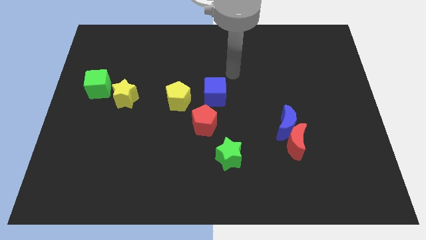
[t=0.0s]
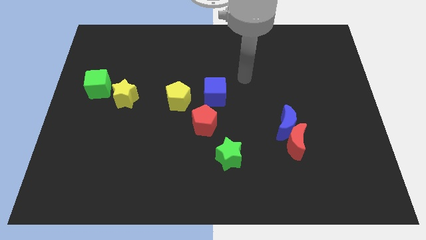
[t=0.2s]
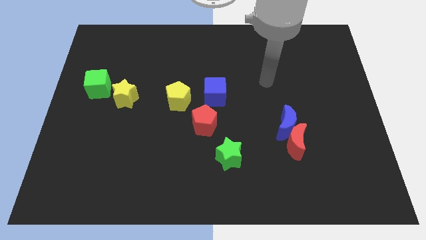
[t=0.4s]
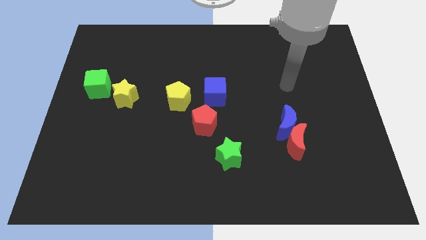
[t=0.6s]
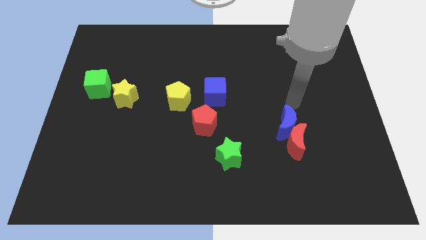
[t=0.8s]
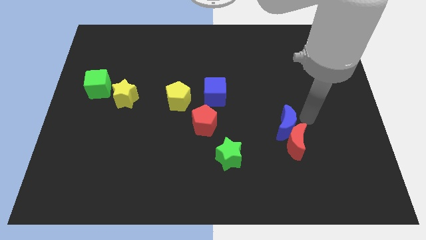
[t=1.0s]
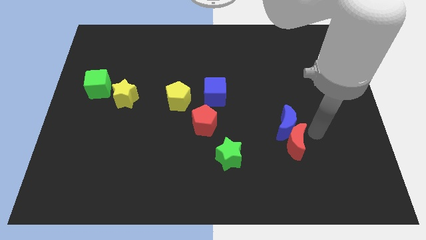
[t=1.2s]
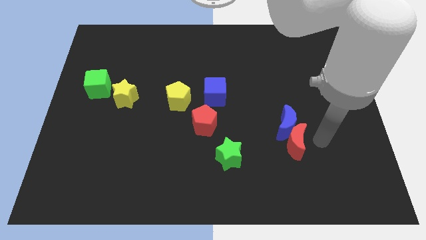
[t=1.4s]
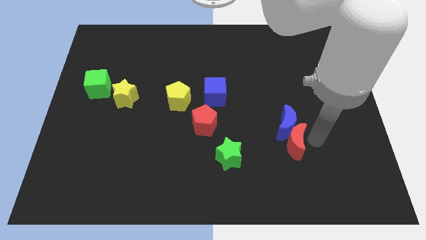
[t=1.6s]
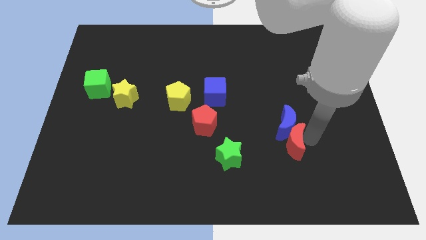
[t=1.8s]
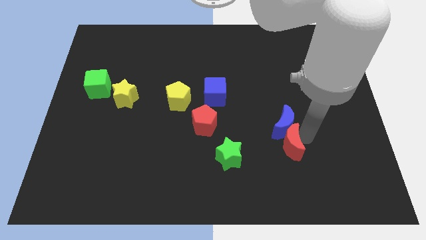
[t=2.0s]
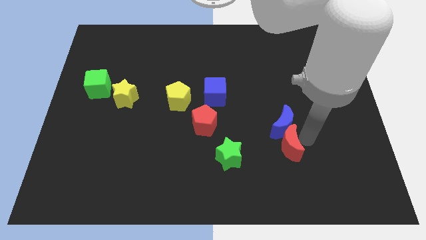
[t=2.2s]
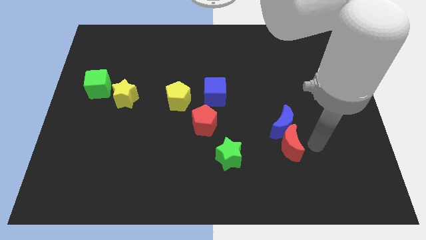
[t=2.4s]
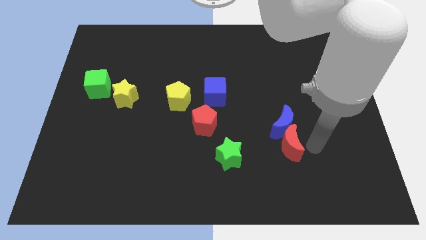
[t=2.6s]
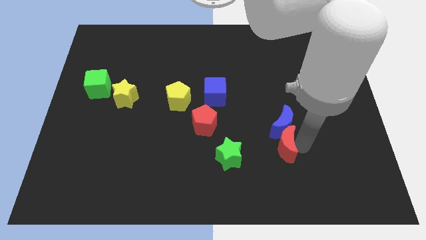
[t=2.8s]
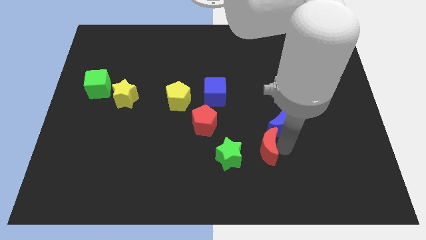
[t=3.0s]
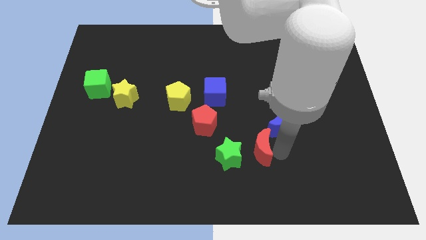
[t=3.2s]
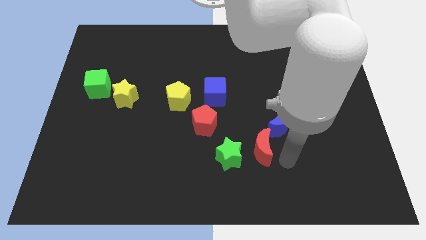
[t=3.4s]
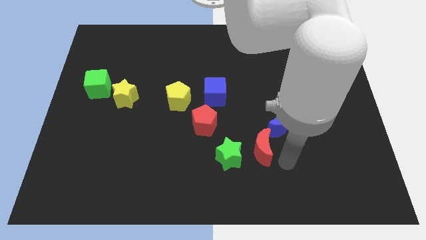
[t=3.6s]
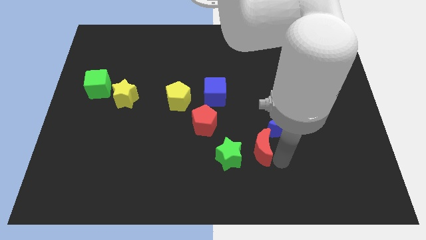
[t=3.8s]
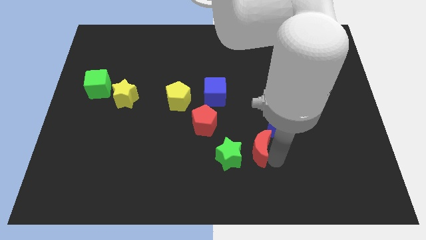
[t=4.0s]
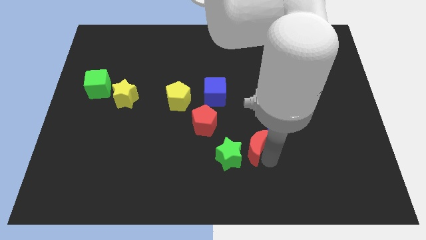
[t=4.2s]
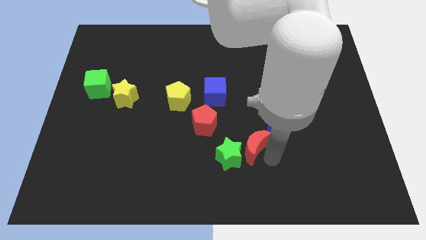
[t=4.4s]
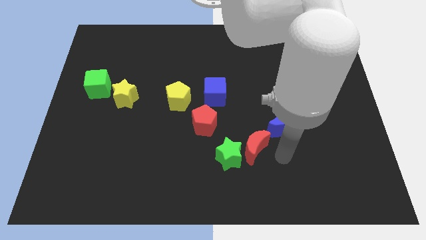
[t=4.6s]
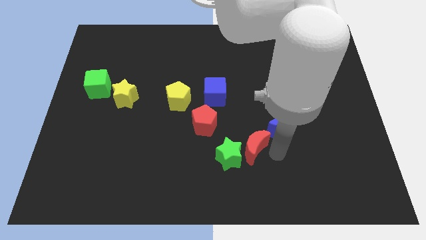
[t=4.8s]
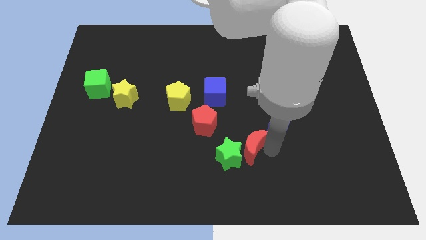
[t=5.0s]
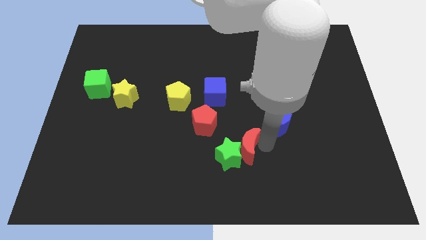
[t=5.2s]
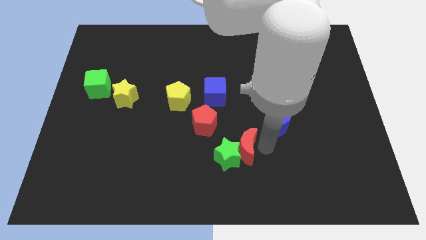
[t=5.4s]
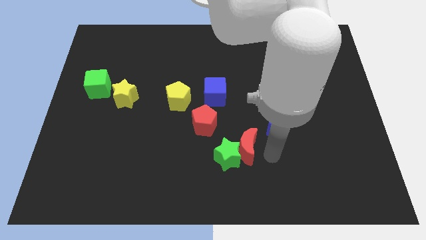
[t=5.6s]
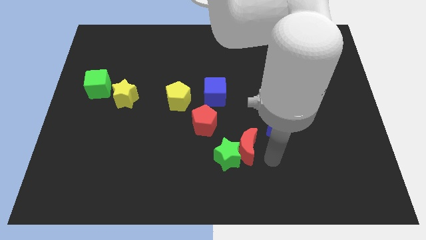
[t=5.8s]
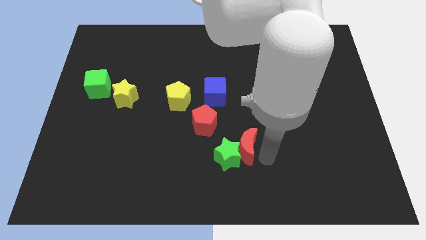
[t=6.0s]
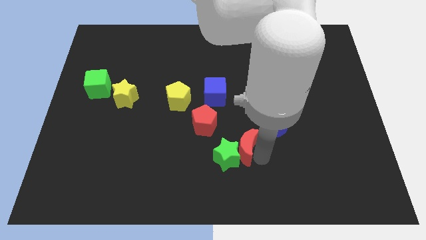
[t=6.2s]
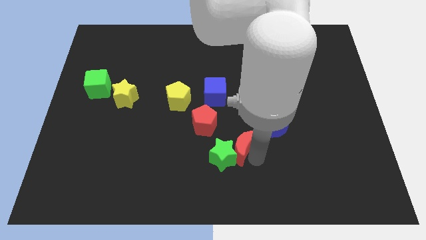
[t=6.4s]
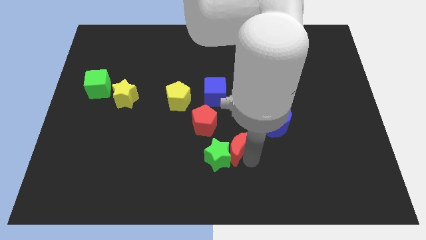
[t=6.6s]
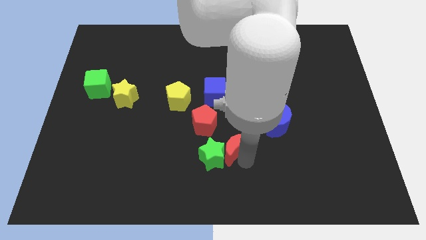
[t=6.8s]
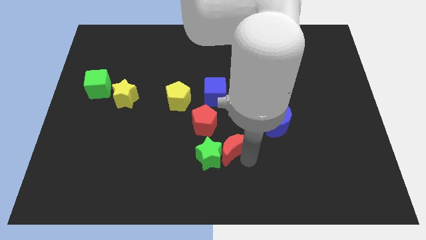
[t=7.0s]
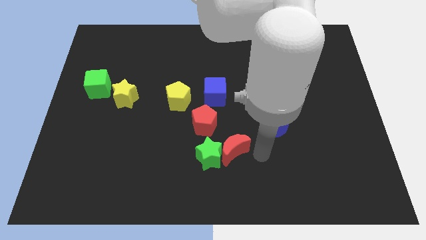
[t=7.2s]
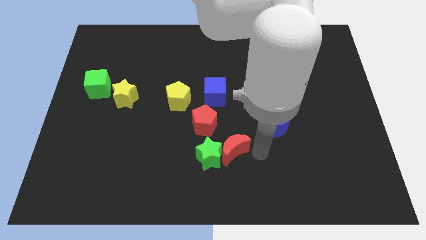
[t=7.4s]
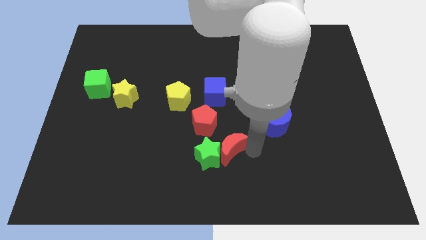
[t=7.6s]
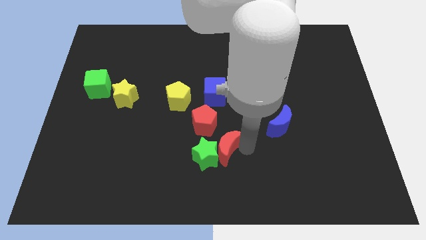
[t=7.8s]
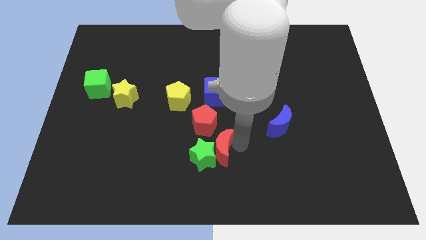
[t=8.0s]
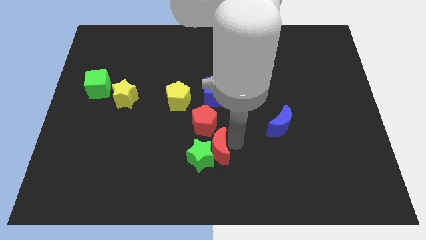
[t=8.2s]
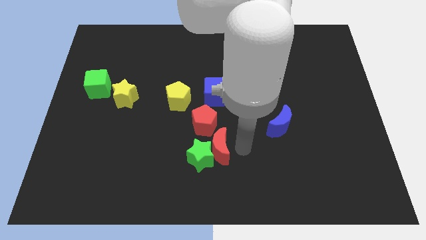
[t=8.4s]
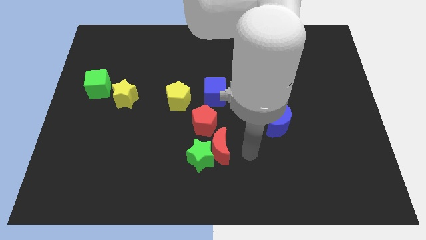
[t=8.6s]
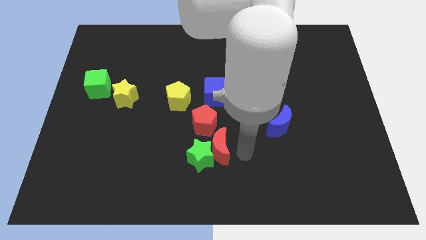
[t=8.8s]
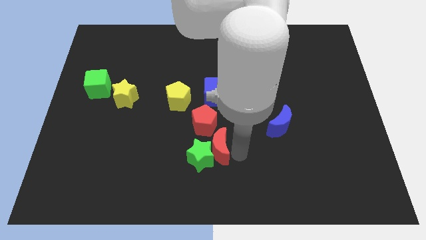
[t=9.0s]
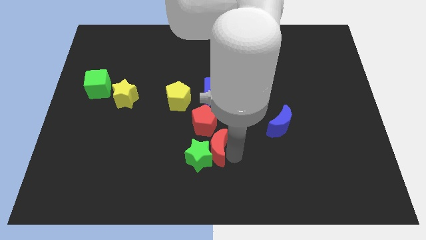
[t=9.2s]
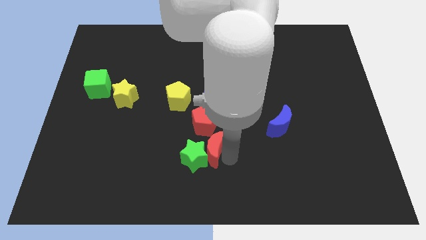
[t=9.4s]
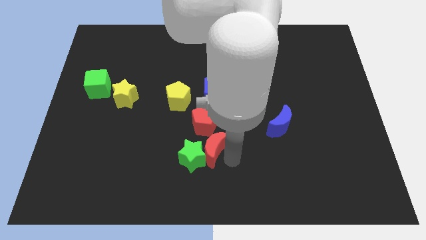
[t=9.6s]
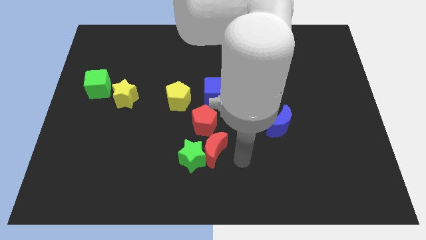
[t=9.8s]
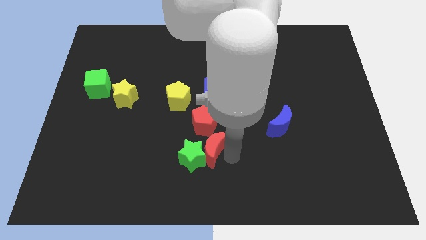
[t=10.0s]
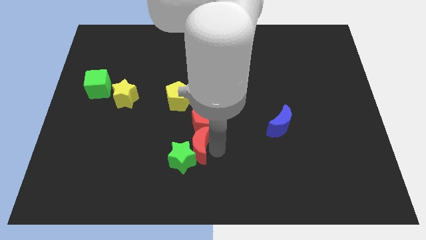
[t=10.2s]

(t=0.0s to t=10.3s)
move the red moon to the left

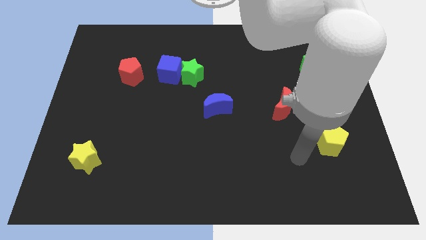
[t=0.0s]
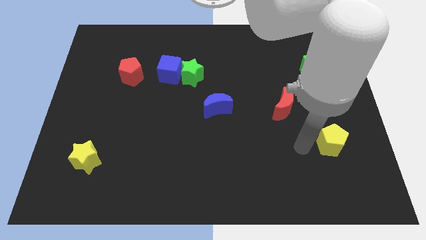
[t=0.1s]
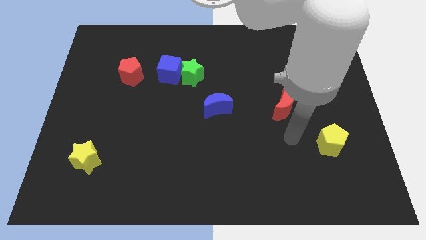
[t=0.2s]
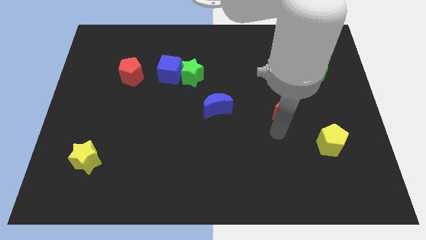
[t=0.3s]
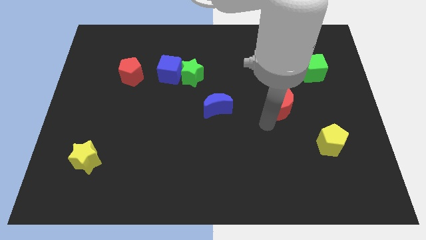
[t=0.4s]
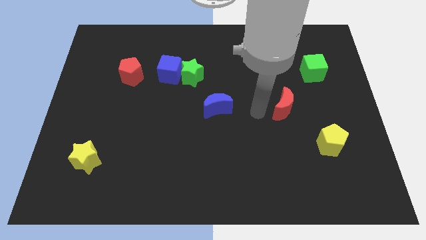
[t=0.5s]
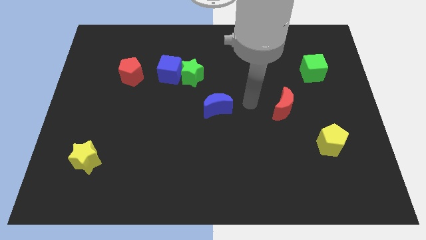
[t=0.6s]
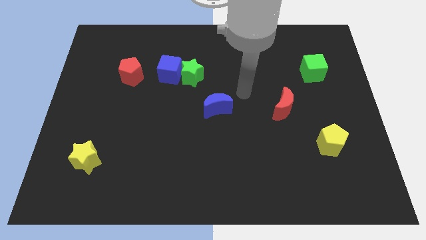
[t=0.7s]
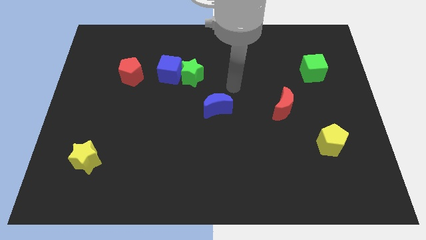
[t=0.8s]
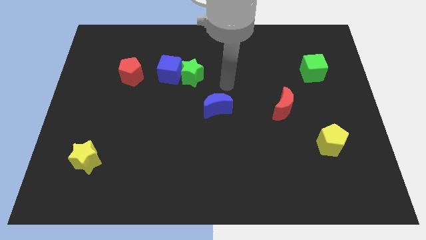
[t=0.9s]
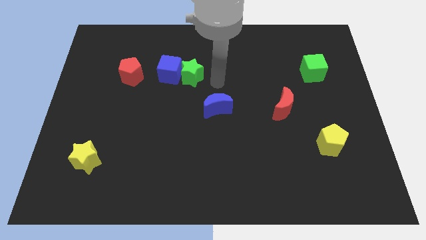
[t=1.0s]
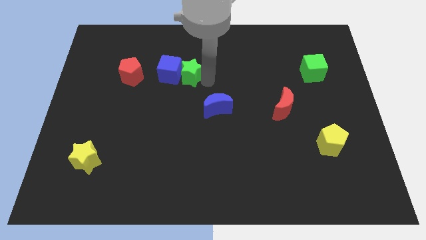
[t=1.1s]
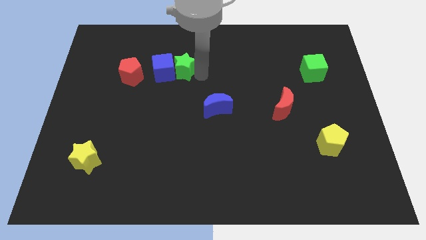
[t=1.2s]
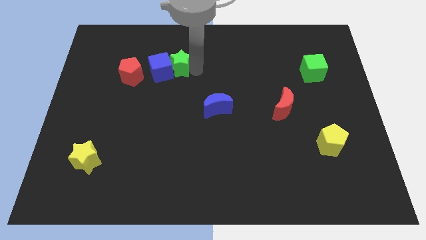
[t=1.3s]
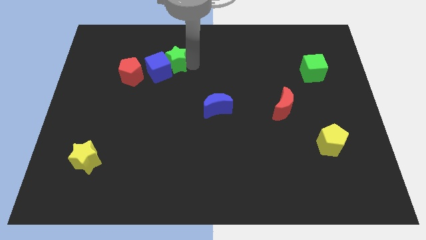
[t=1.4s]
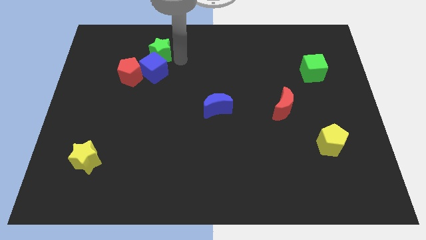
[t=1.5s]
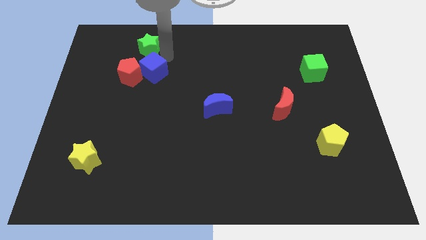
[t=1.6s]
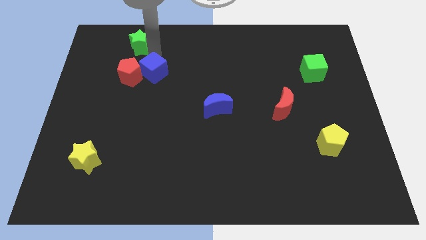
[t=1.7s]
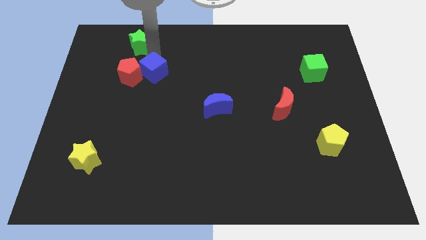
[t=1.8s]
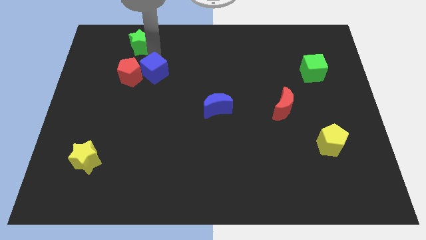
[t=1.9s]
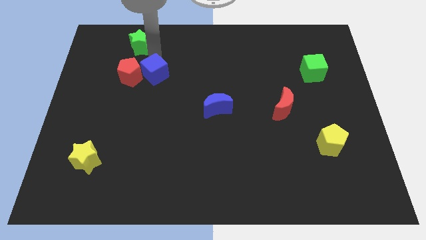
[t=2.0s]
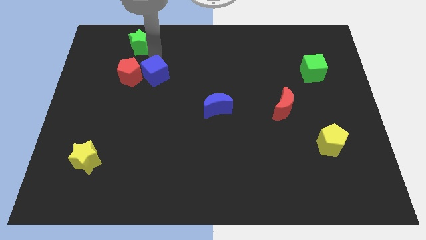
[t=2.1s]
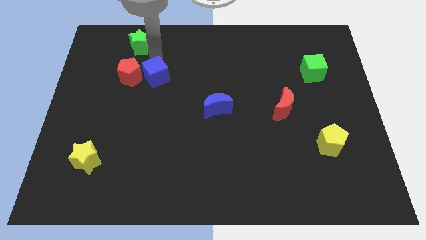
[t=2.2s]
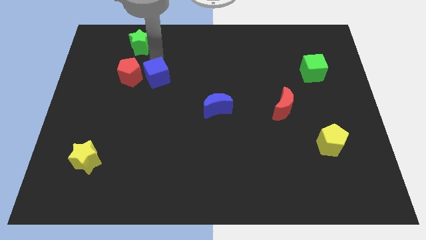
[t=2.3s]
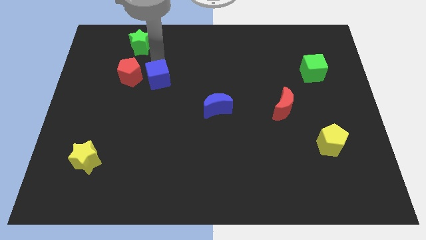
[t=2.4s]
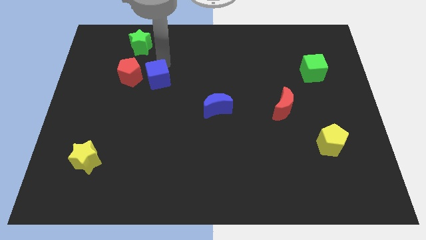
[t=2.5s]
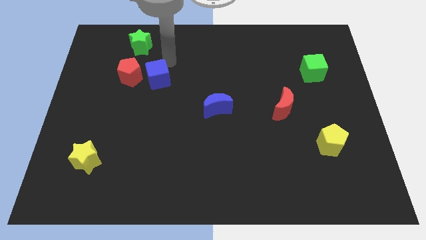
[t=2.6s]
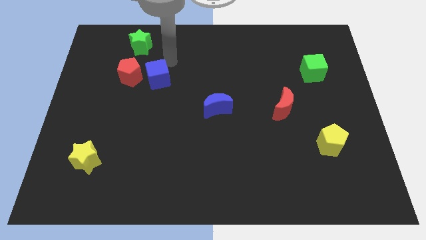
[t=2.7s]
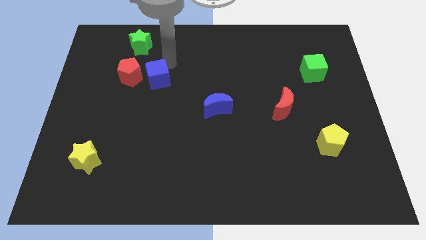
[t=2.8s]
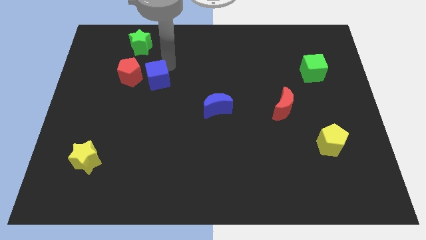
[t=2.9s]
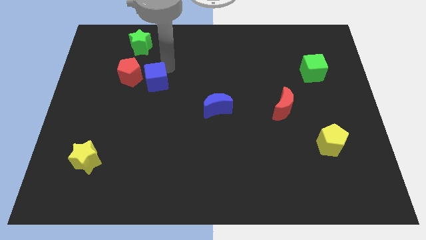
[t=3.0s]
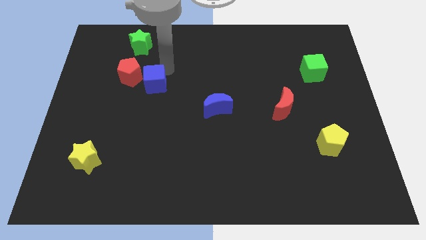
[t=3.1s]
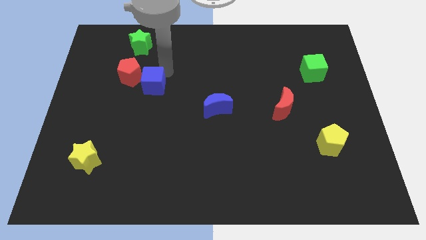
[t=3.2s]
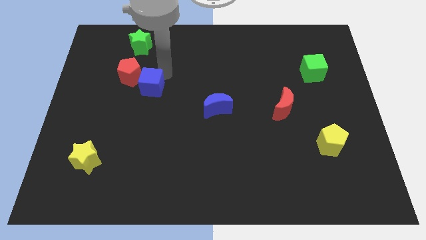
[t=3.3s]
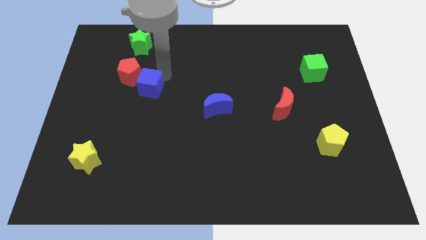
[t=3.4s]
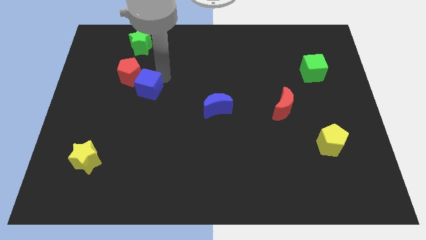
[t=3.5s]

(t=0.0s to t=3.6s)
move the blue cube a little downwards and to the left diagonally
